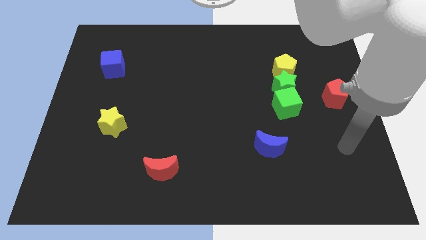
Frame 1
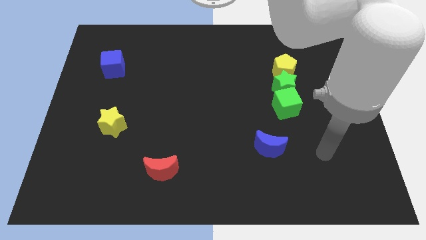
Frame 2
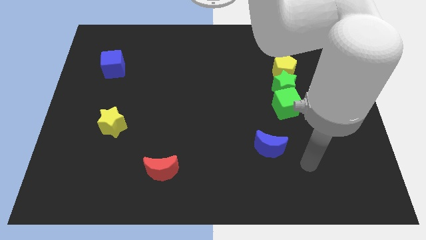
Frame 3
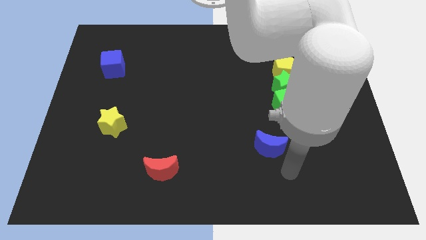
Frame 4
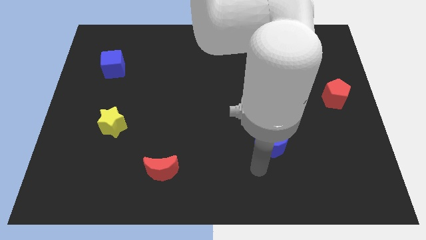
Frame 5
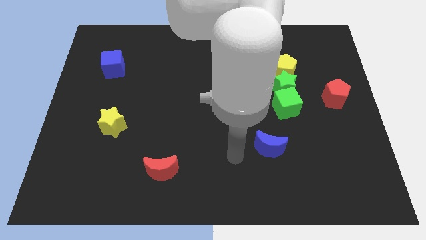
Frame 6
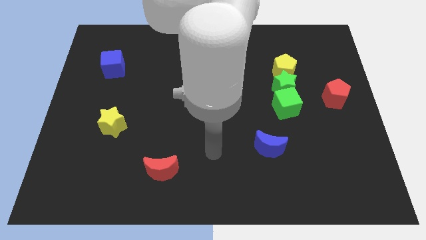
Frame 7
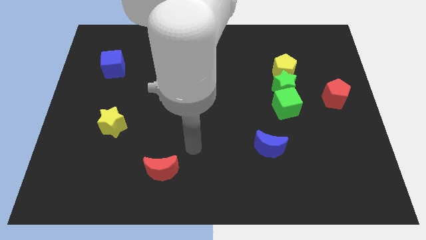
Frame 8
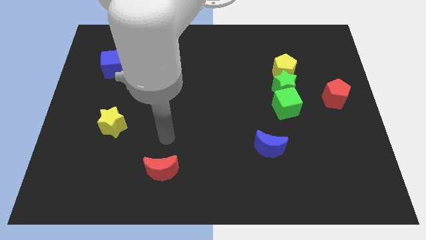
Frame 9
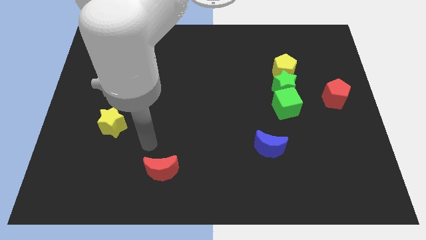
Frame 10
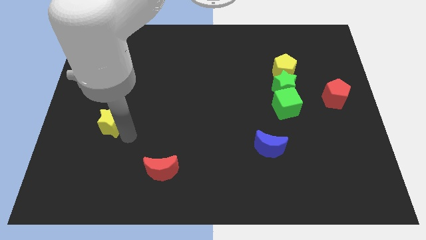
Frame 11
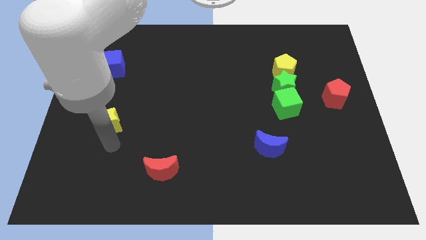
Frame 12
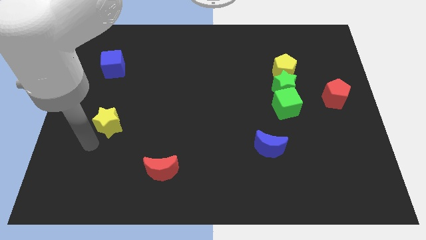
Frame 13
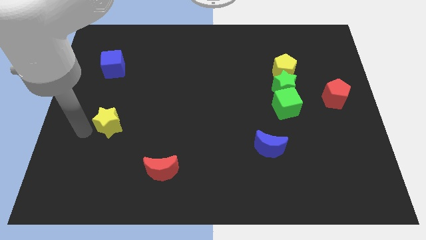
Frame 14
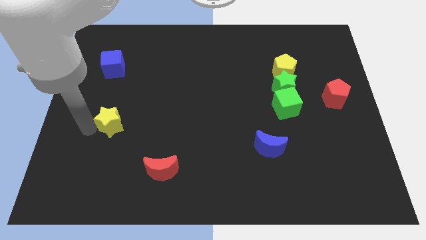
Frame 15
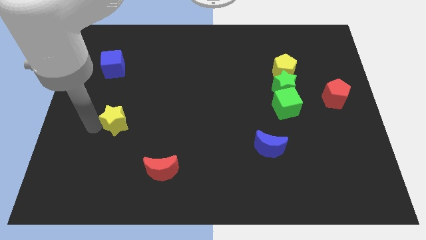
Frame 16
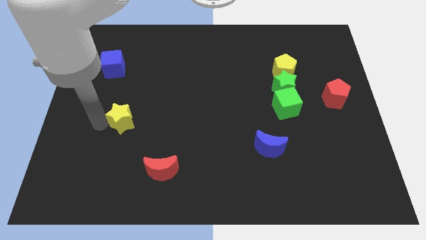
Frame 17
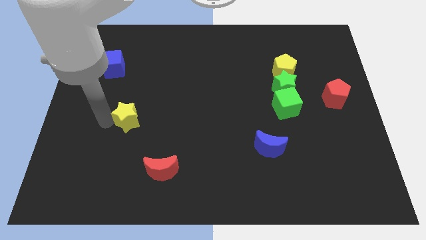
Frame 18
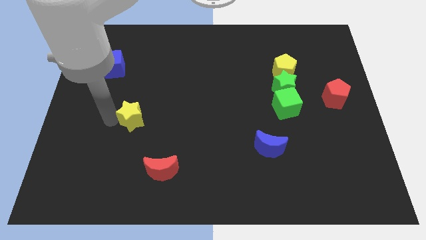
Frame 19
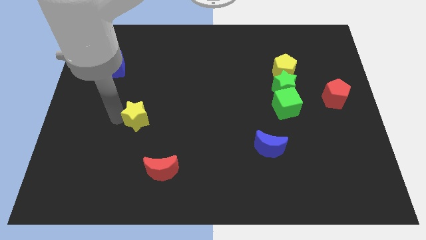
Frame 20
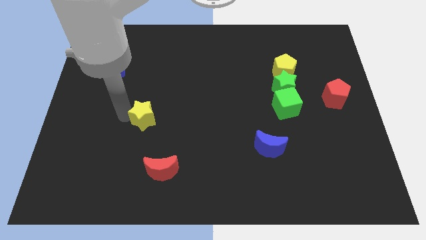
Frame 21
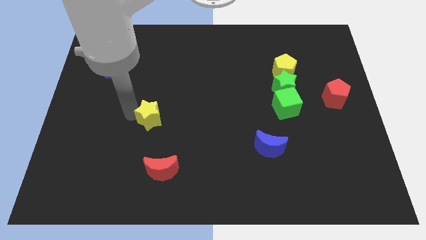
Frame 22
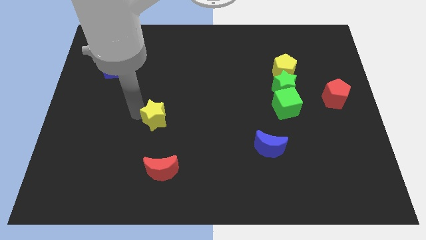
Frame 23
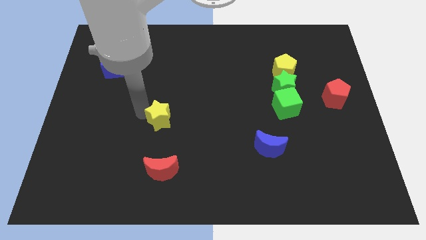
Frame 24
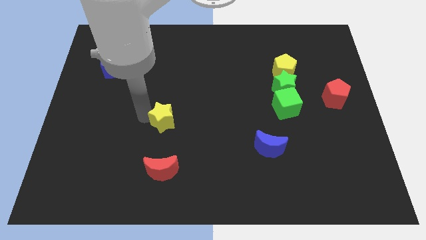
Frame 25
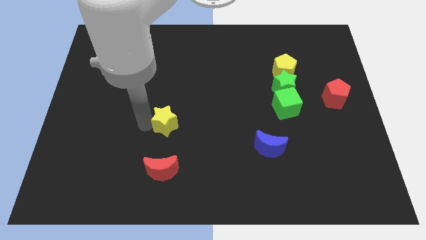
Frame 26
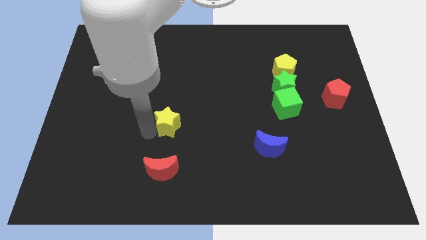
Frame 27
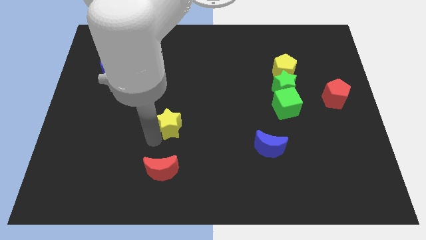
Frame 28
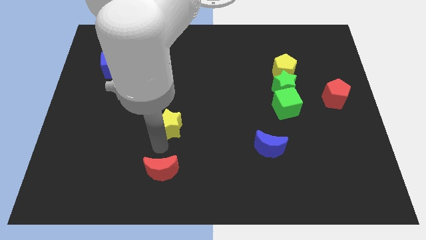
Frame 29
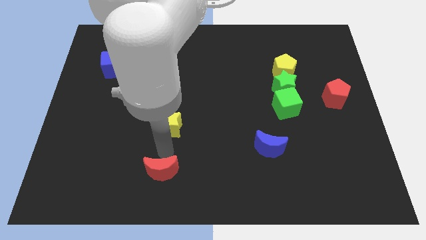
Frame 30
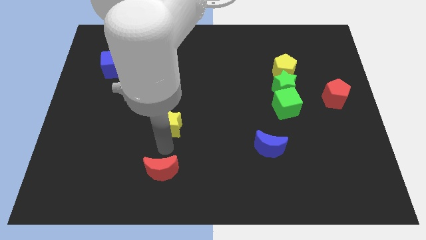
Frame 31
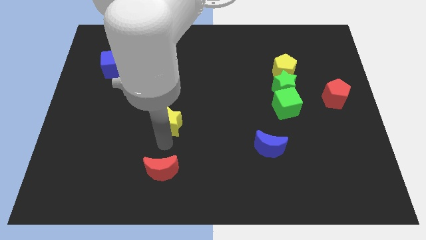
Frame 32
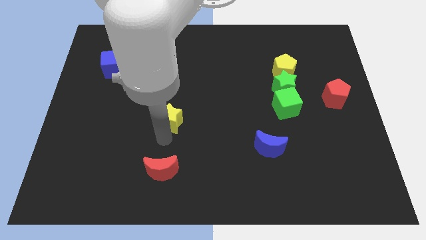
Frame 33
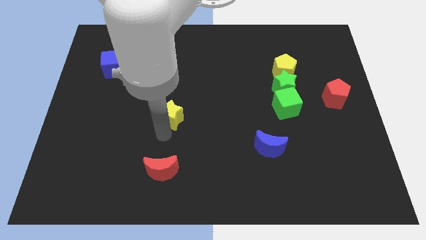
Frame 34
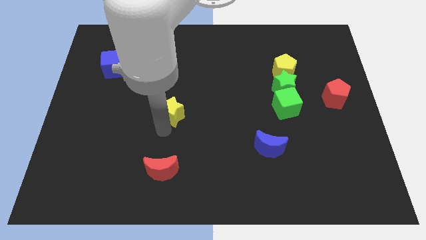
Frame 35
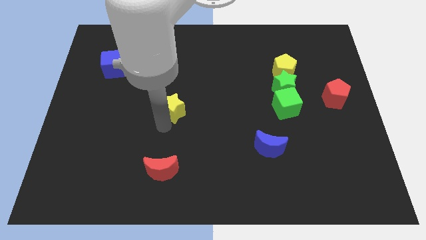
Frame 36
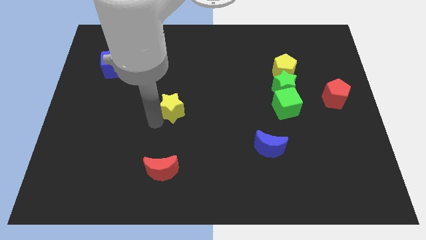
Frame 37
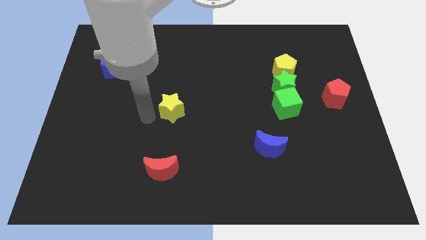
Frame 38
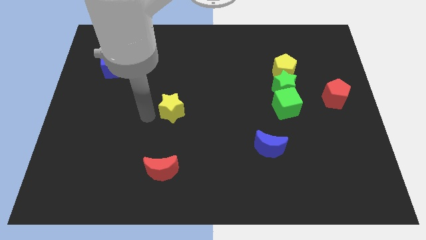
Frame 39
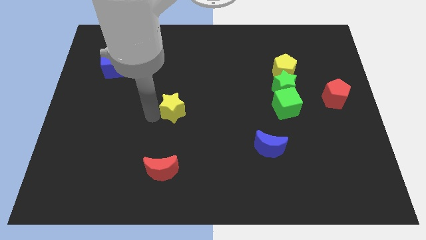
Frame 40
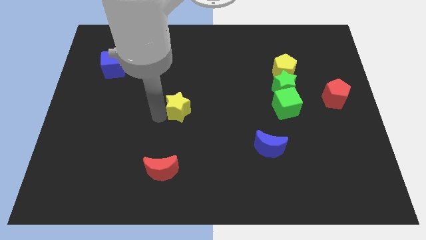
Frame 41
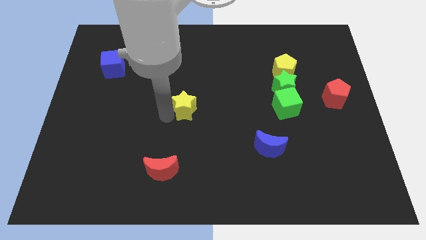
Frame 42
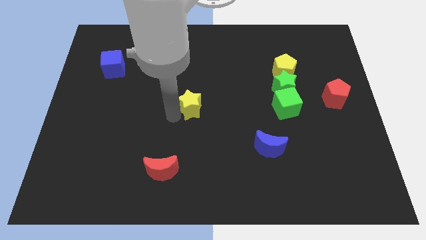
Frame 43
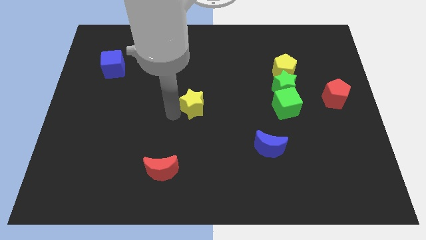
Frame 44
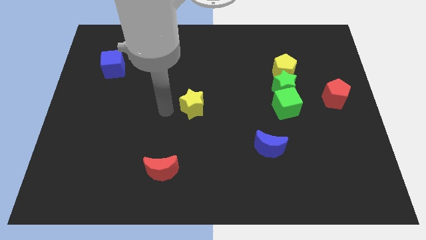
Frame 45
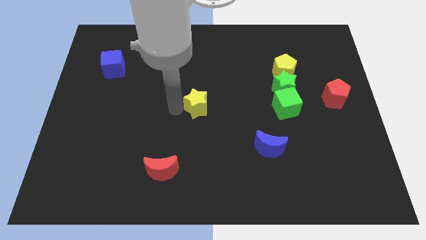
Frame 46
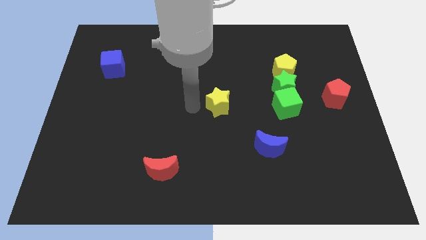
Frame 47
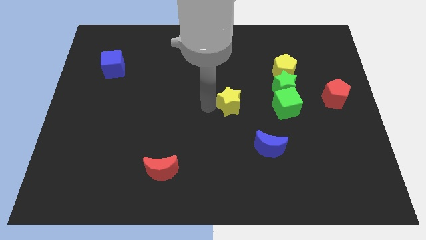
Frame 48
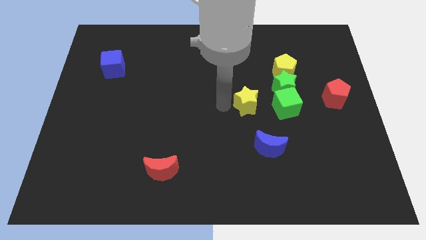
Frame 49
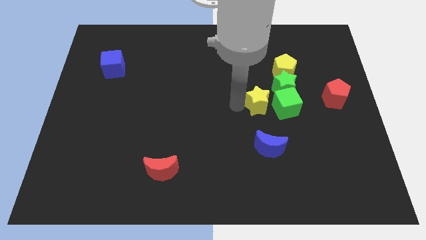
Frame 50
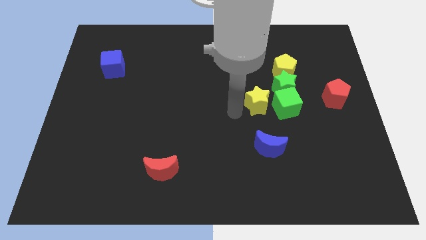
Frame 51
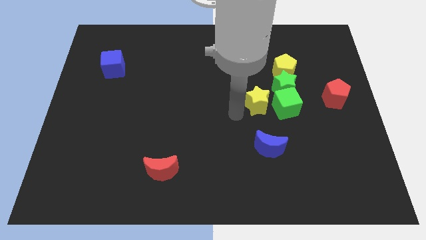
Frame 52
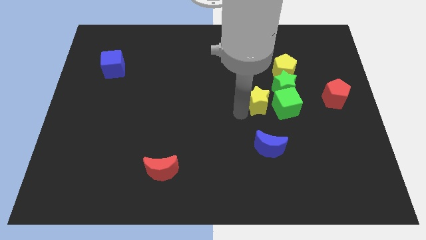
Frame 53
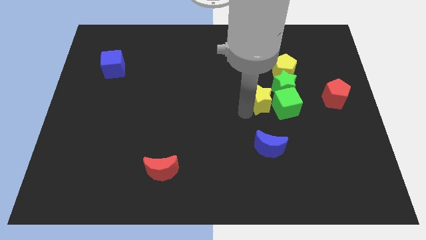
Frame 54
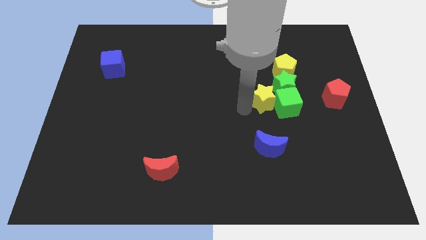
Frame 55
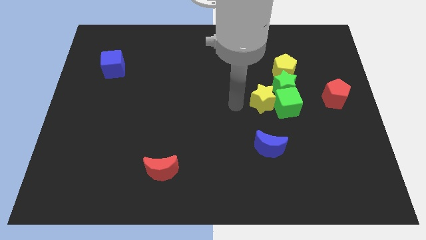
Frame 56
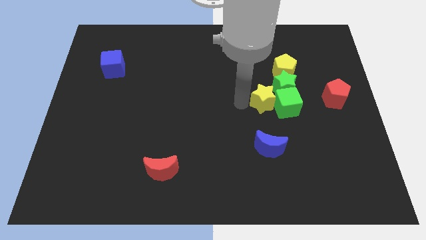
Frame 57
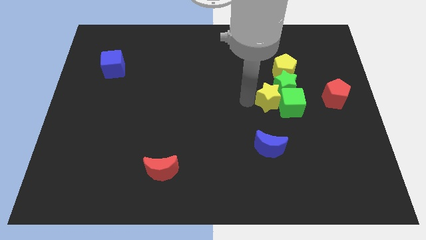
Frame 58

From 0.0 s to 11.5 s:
push the yellow star left of the red pentagon

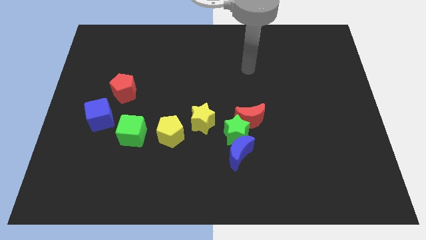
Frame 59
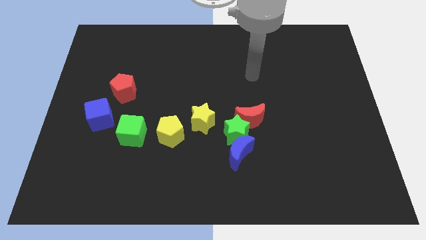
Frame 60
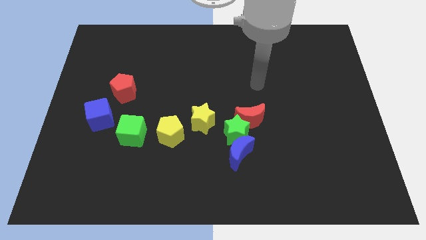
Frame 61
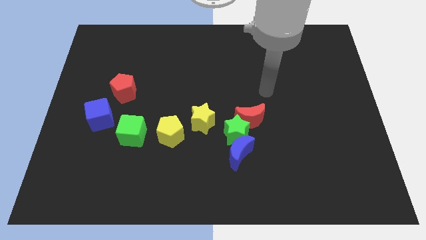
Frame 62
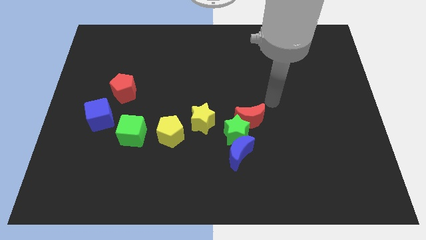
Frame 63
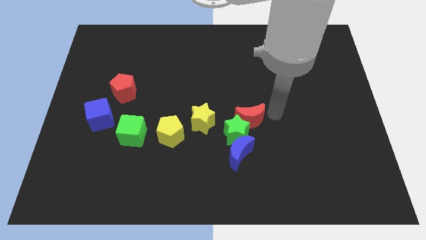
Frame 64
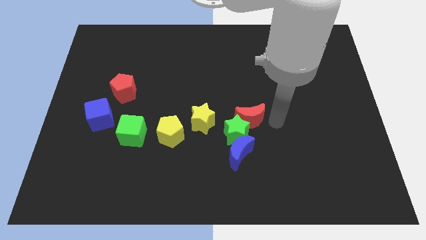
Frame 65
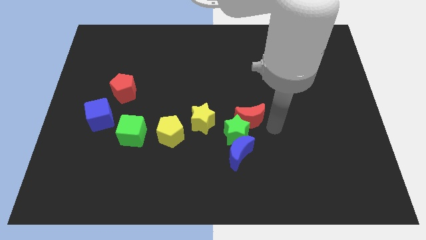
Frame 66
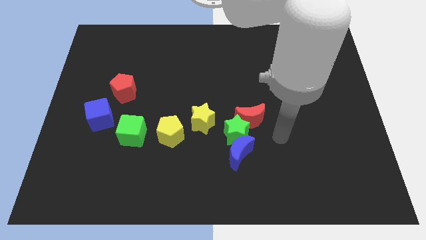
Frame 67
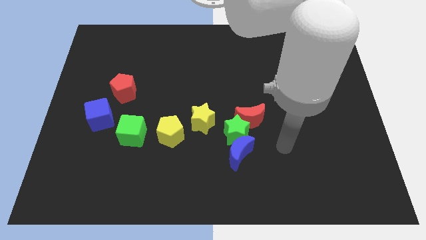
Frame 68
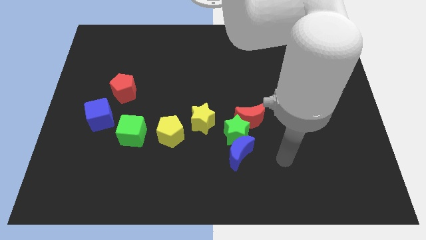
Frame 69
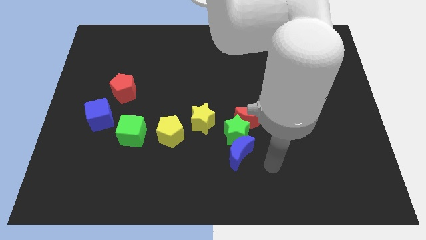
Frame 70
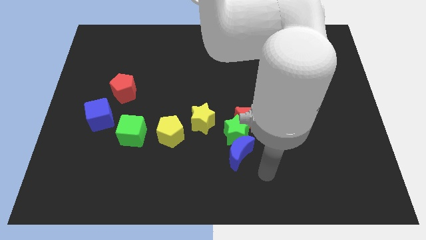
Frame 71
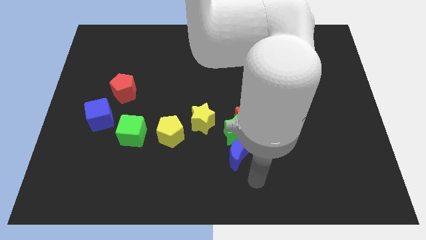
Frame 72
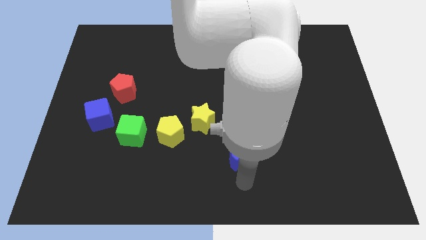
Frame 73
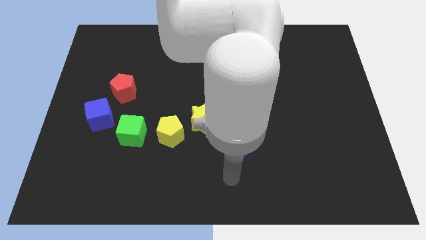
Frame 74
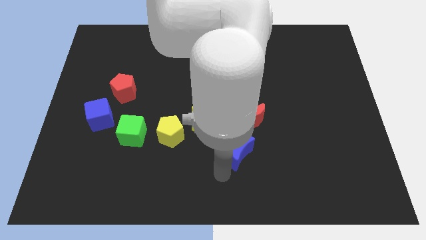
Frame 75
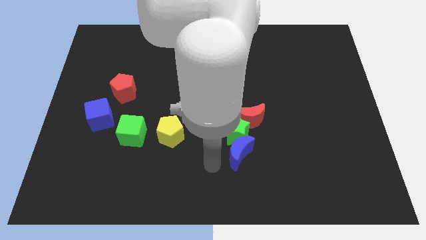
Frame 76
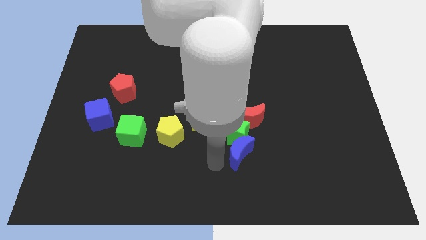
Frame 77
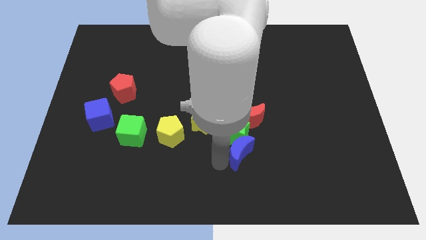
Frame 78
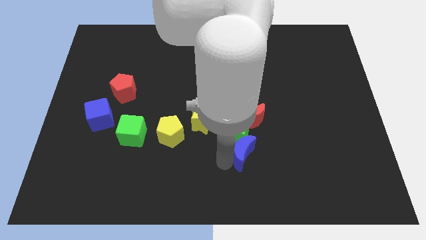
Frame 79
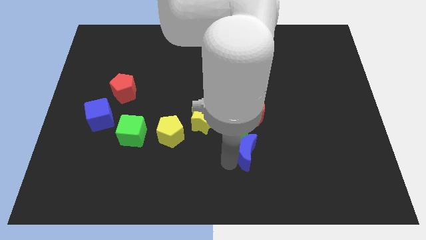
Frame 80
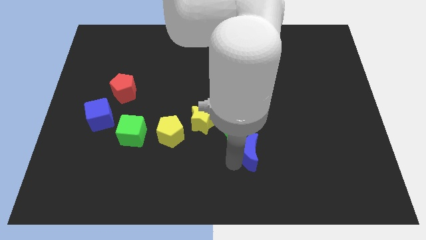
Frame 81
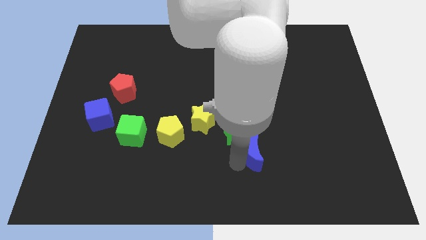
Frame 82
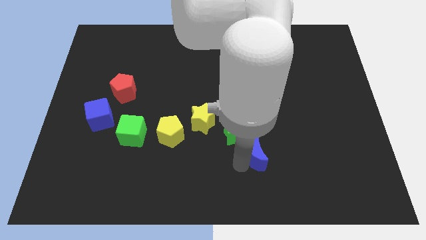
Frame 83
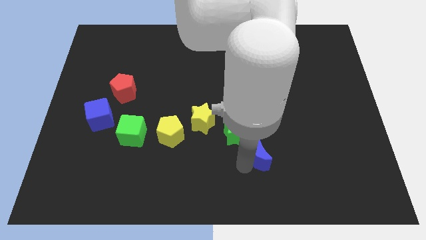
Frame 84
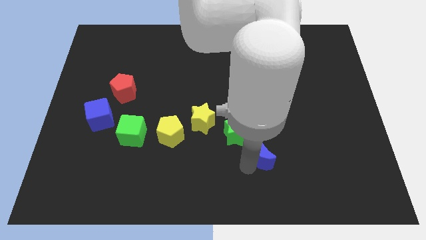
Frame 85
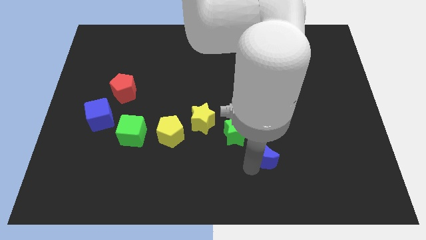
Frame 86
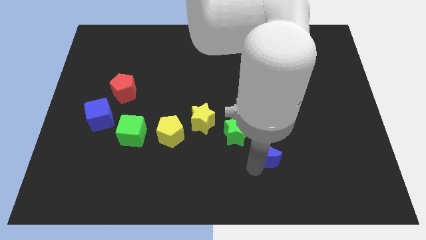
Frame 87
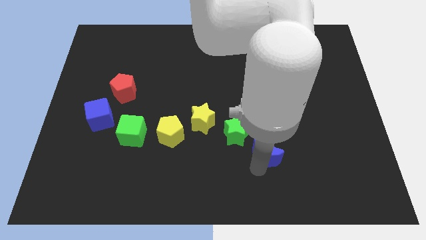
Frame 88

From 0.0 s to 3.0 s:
put the blue moon to the bottom right side of the red moon
